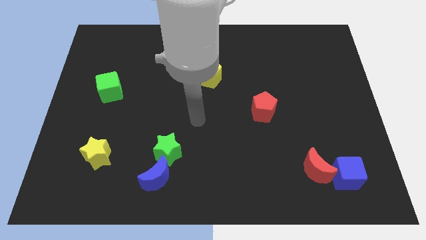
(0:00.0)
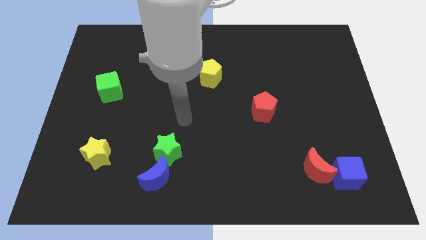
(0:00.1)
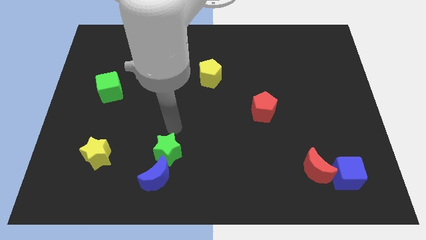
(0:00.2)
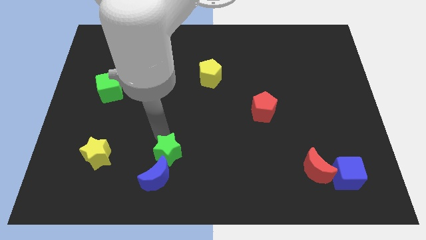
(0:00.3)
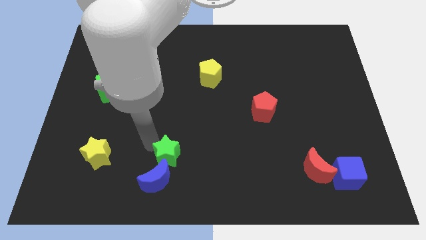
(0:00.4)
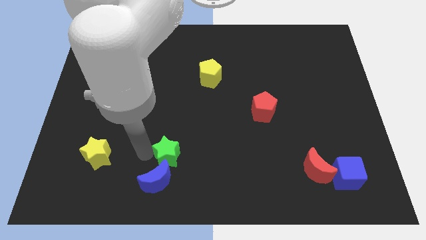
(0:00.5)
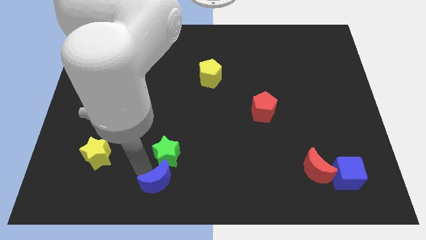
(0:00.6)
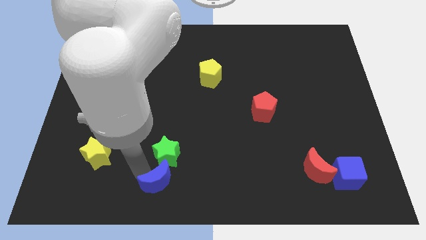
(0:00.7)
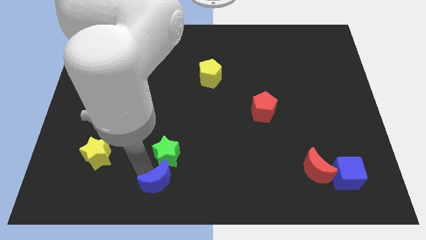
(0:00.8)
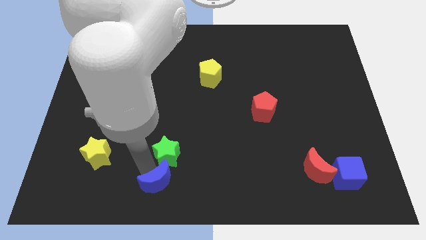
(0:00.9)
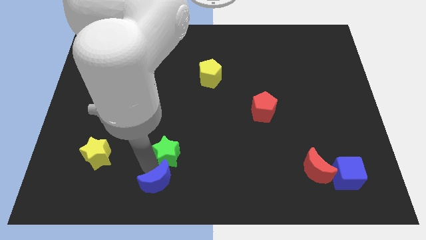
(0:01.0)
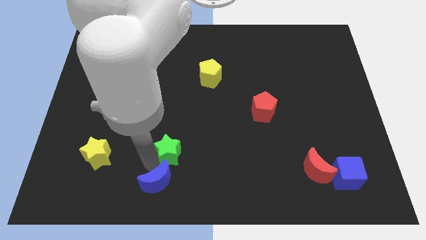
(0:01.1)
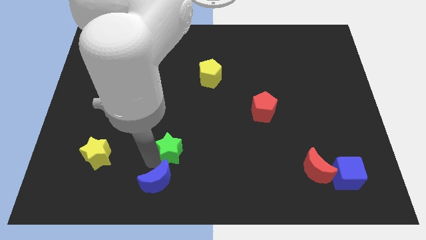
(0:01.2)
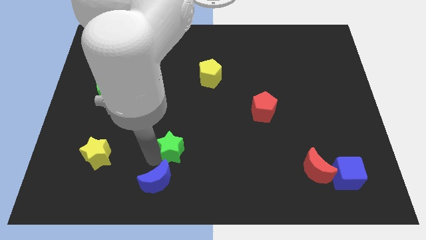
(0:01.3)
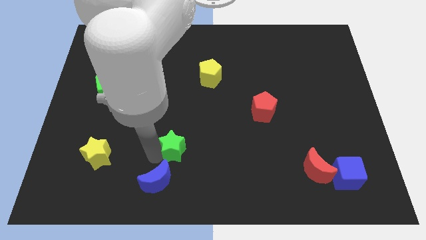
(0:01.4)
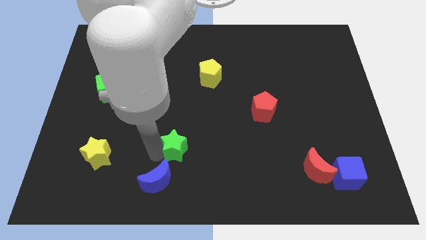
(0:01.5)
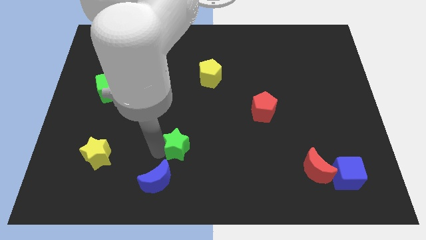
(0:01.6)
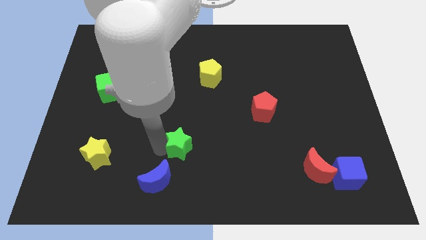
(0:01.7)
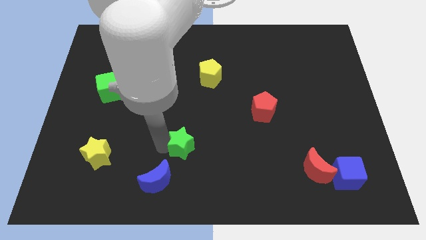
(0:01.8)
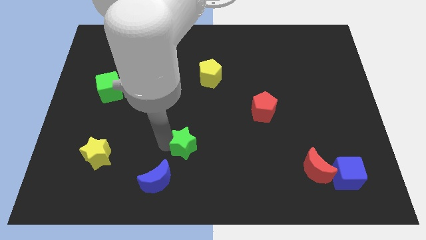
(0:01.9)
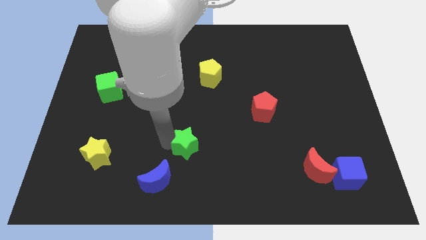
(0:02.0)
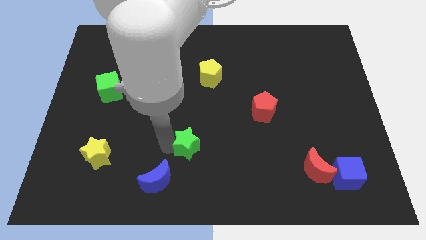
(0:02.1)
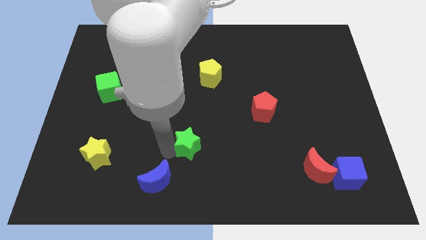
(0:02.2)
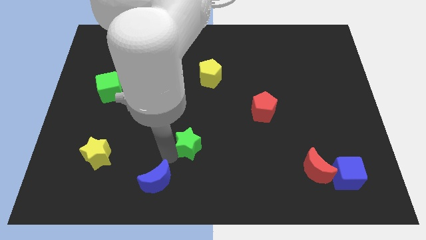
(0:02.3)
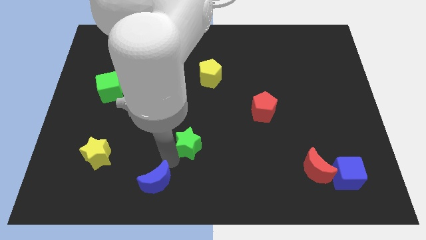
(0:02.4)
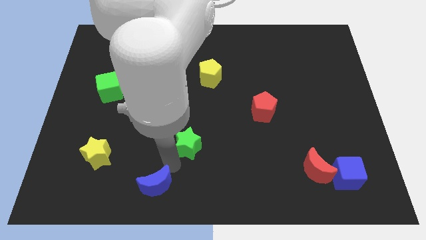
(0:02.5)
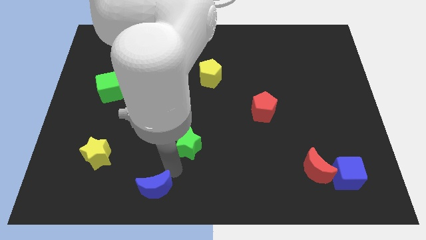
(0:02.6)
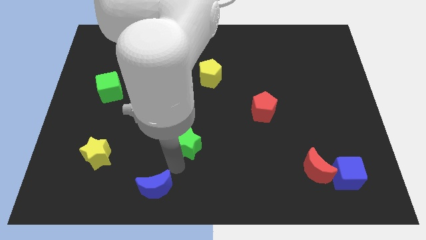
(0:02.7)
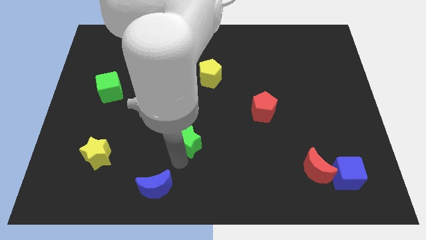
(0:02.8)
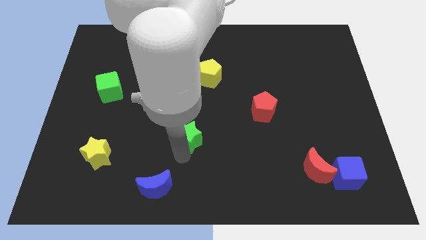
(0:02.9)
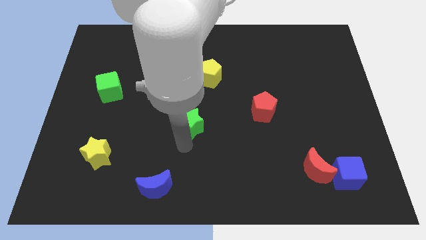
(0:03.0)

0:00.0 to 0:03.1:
move the green star a bit up and to the right

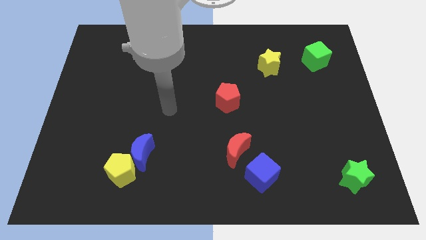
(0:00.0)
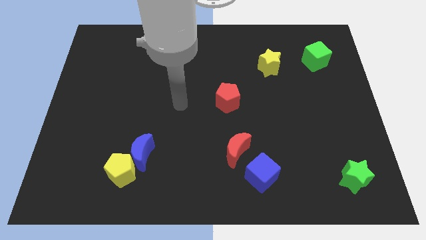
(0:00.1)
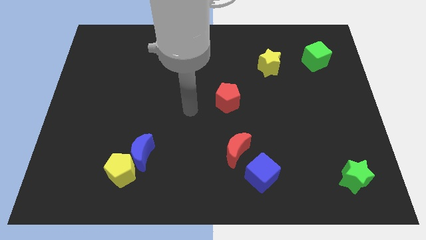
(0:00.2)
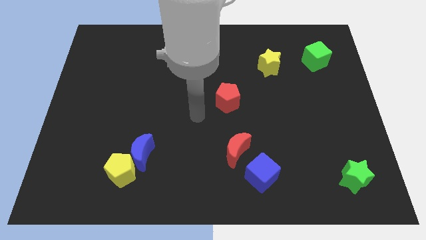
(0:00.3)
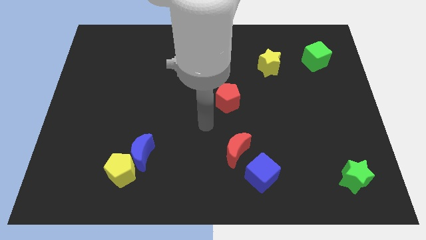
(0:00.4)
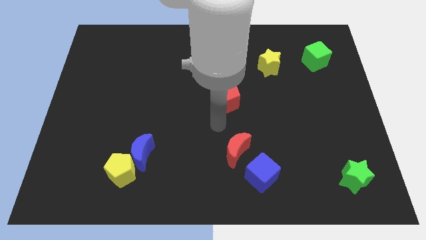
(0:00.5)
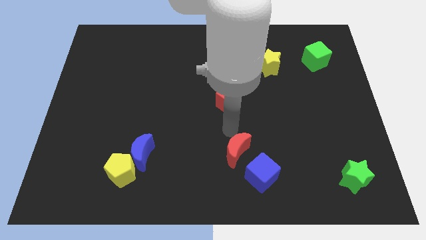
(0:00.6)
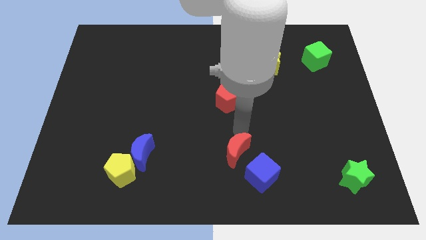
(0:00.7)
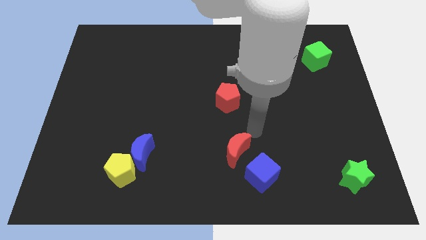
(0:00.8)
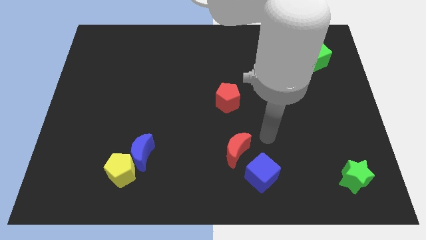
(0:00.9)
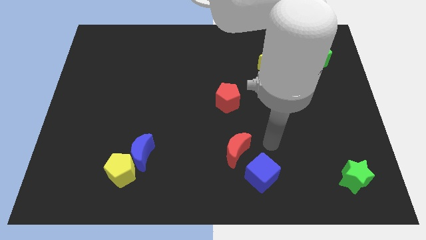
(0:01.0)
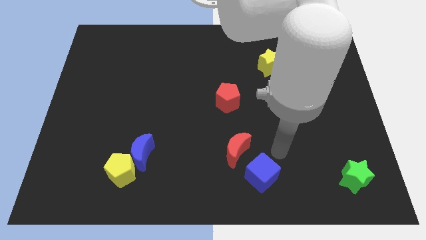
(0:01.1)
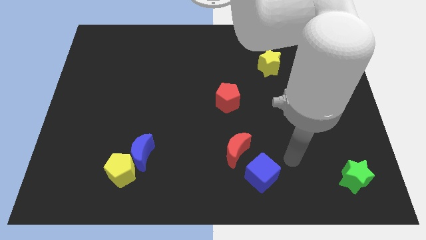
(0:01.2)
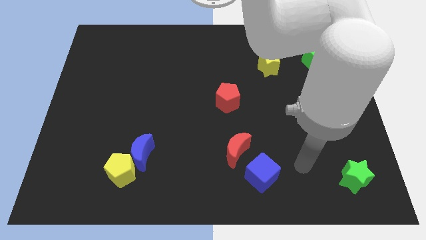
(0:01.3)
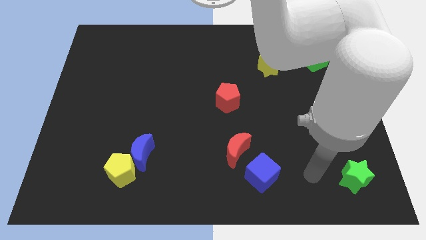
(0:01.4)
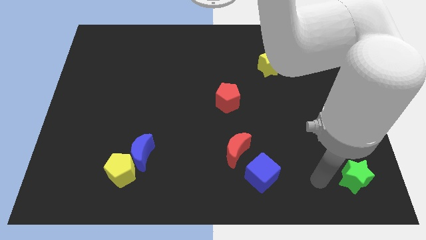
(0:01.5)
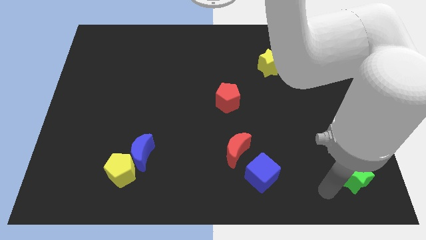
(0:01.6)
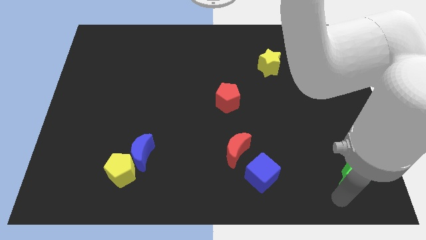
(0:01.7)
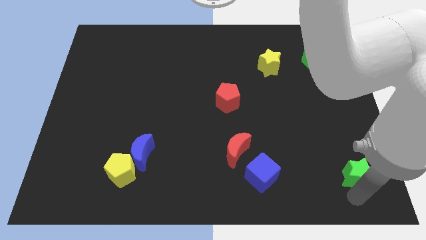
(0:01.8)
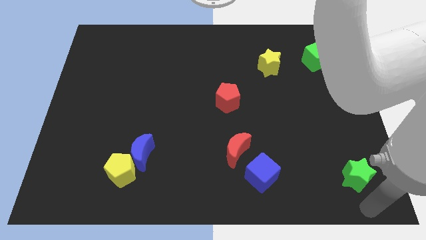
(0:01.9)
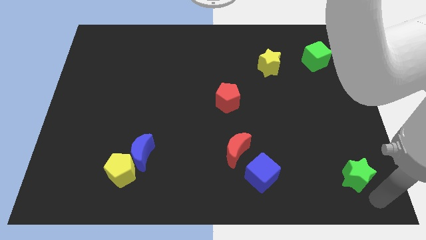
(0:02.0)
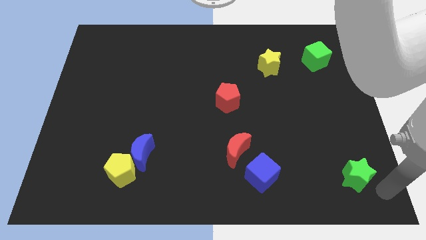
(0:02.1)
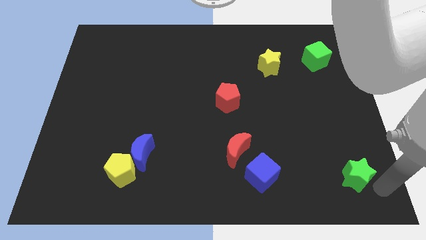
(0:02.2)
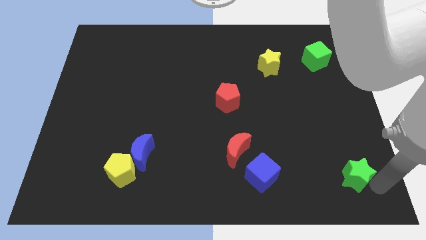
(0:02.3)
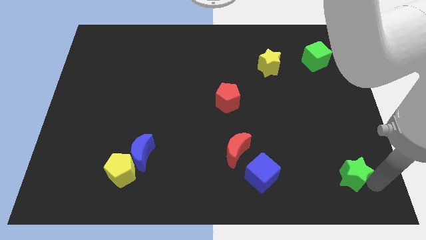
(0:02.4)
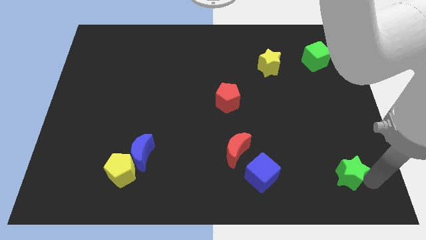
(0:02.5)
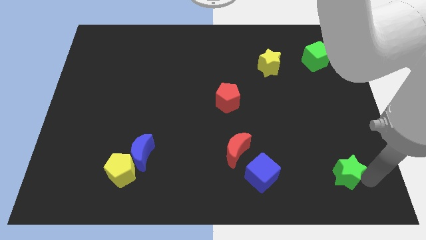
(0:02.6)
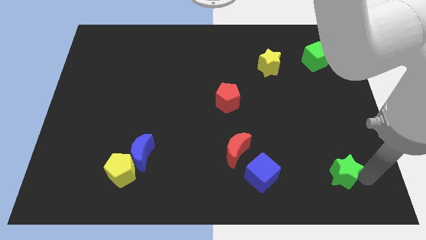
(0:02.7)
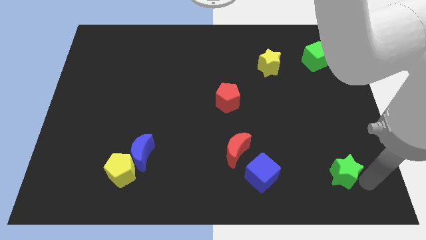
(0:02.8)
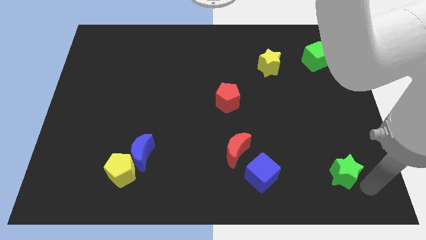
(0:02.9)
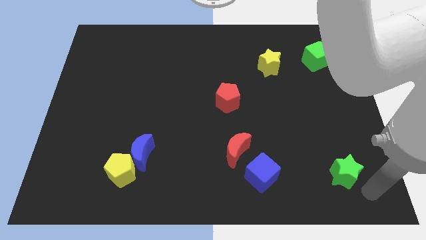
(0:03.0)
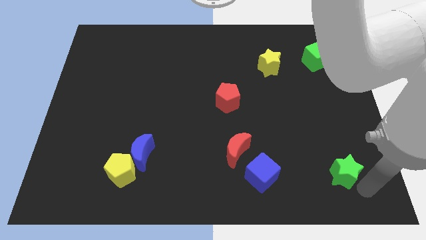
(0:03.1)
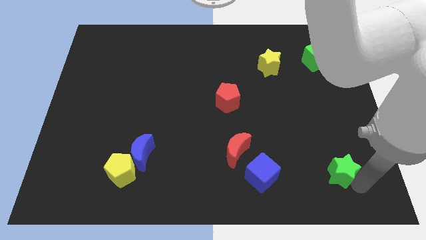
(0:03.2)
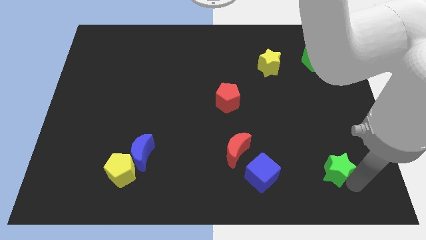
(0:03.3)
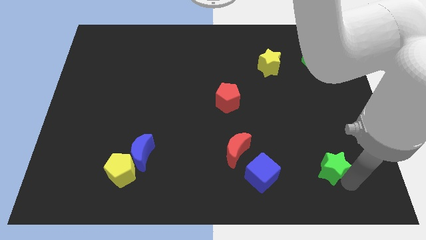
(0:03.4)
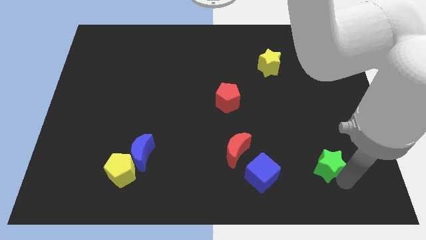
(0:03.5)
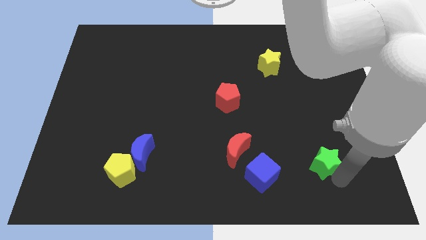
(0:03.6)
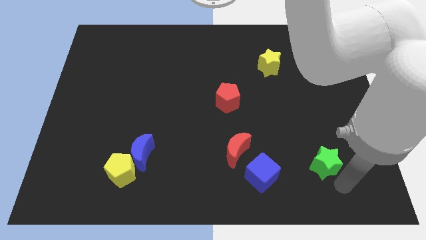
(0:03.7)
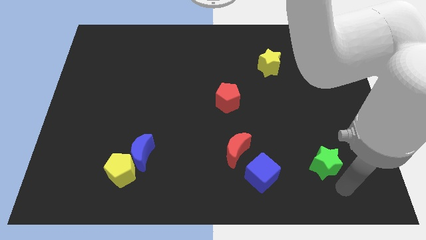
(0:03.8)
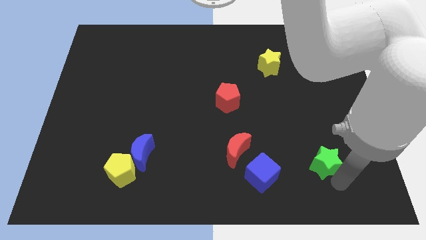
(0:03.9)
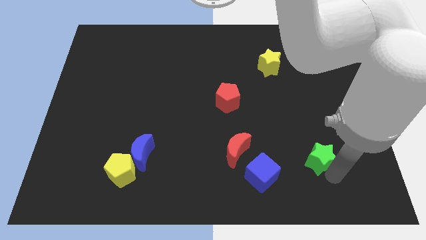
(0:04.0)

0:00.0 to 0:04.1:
slide the green star somewhat up and to the left diagonally

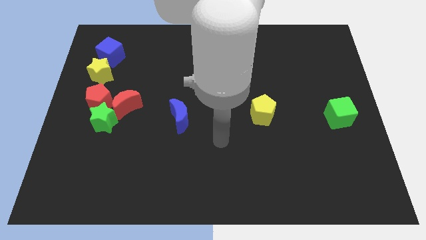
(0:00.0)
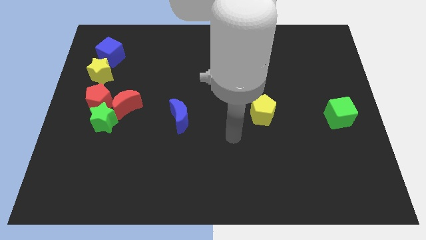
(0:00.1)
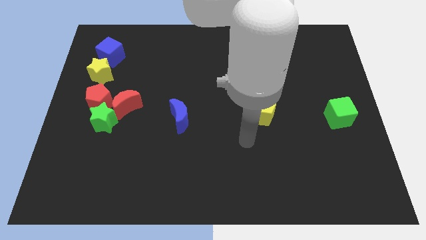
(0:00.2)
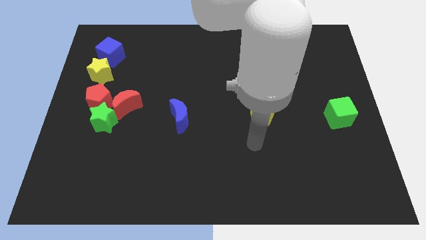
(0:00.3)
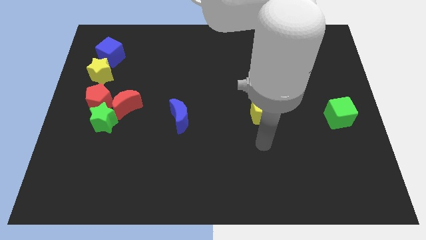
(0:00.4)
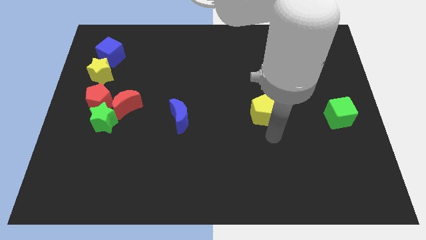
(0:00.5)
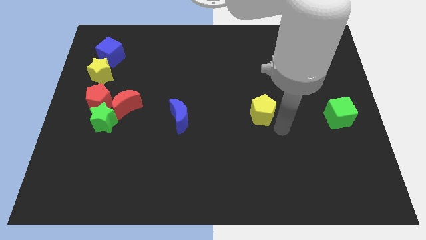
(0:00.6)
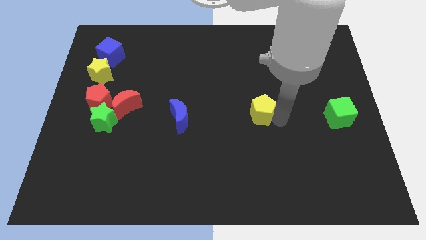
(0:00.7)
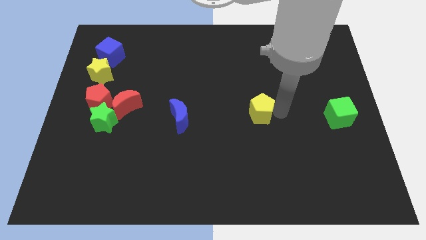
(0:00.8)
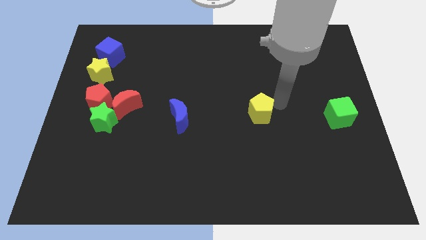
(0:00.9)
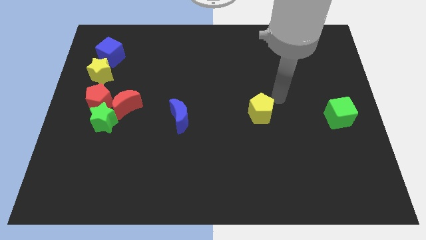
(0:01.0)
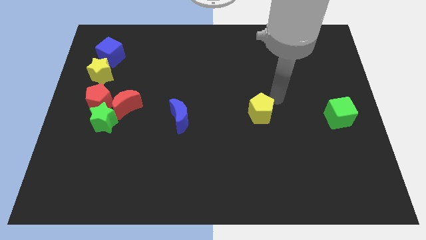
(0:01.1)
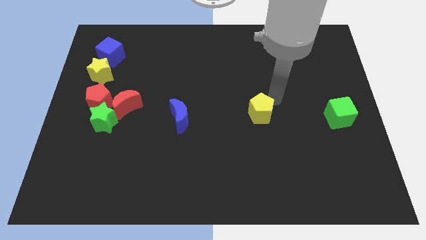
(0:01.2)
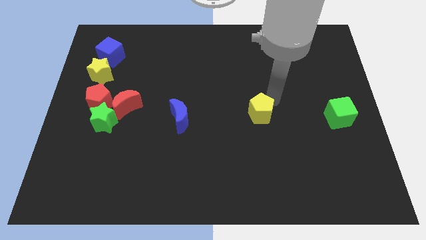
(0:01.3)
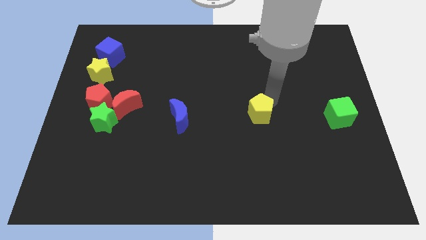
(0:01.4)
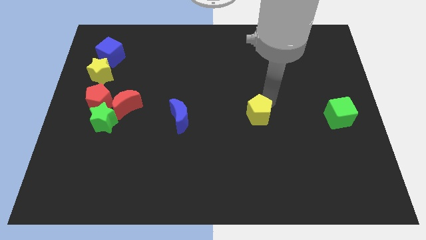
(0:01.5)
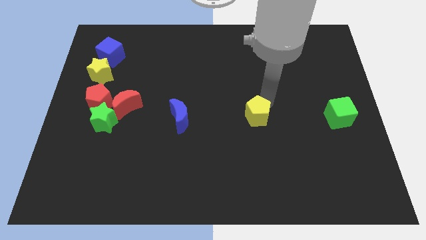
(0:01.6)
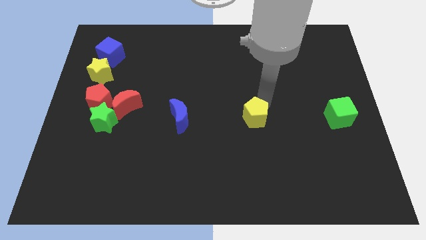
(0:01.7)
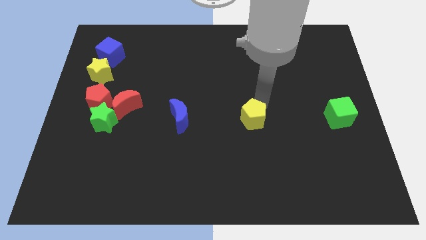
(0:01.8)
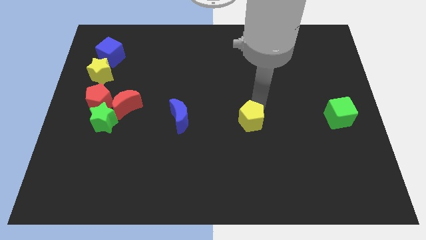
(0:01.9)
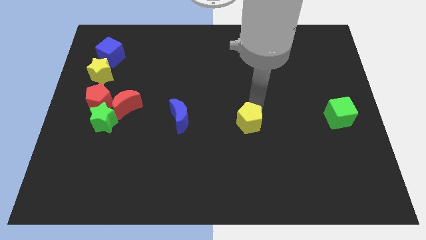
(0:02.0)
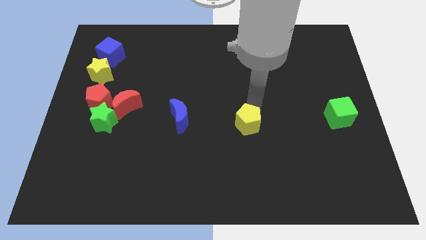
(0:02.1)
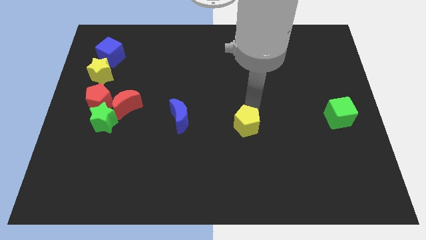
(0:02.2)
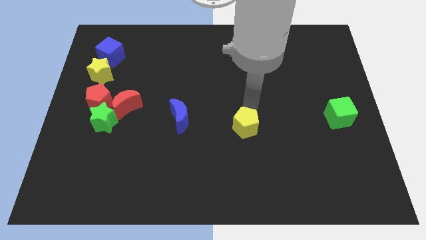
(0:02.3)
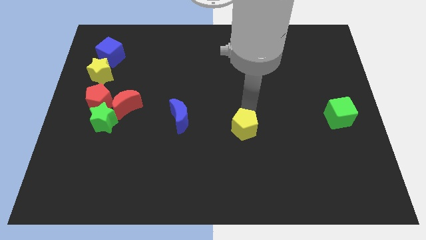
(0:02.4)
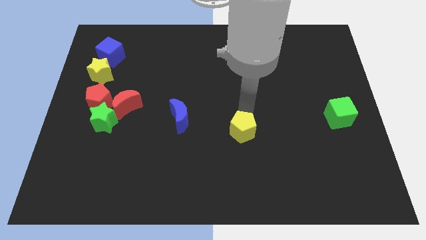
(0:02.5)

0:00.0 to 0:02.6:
push the yellow pentagon slightly downwards and left diagonally
